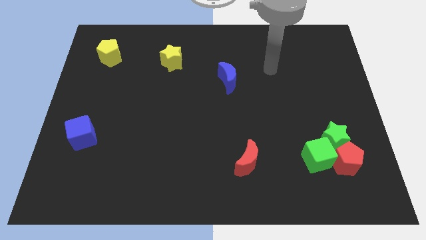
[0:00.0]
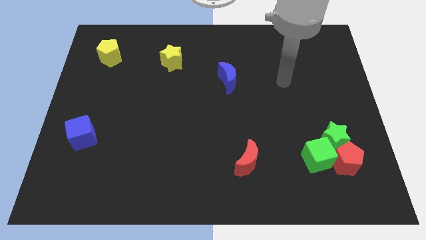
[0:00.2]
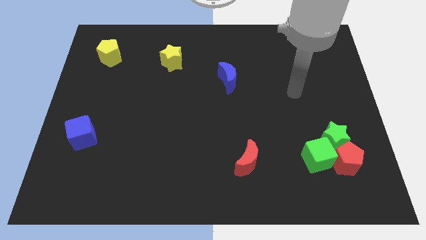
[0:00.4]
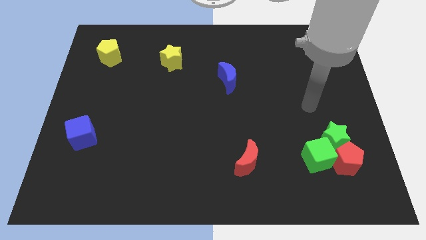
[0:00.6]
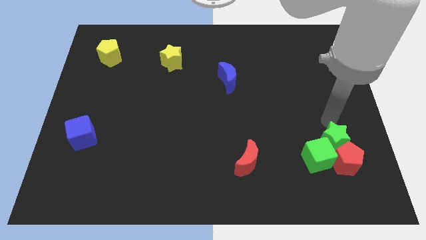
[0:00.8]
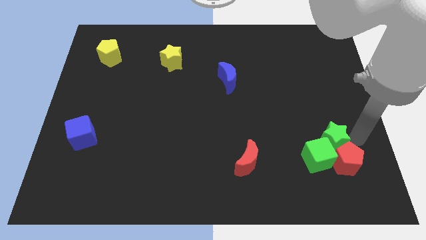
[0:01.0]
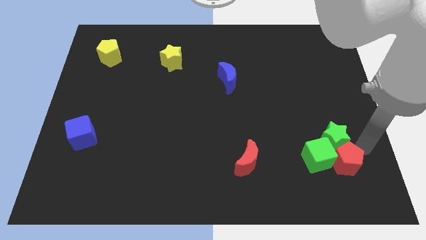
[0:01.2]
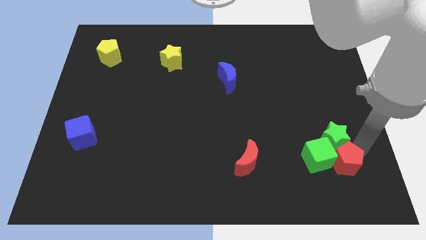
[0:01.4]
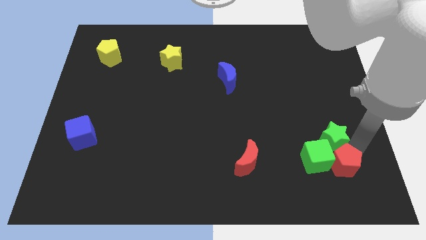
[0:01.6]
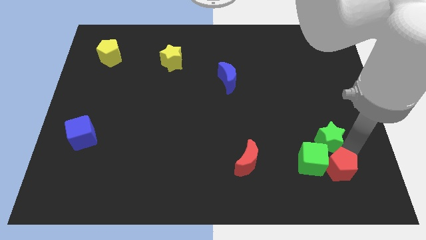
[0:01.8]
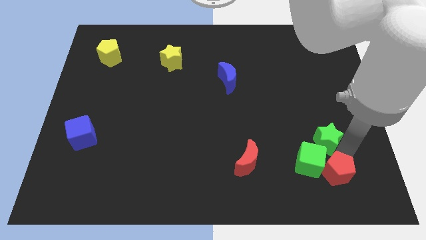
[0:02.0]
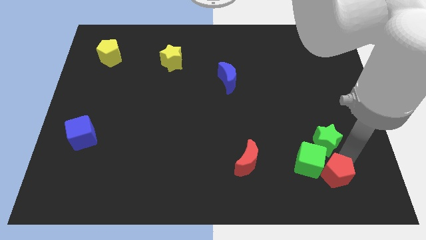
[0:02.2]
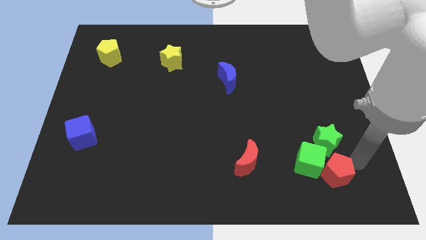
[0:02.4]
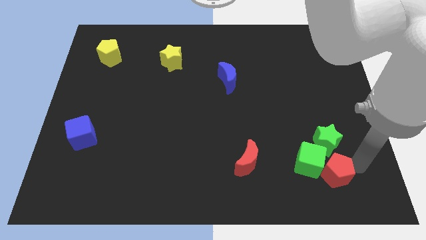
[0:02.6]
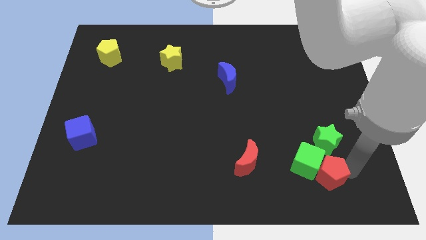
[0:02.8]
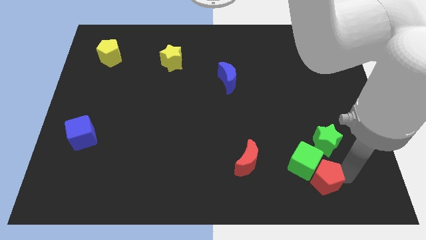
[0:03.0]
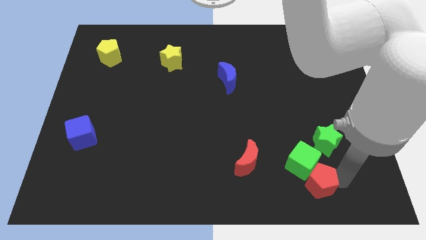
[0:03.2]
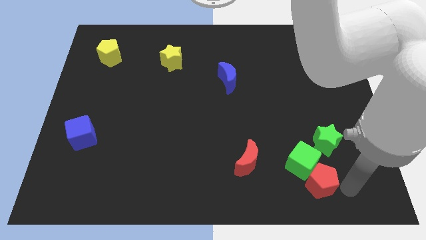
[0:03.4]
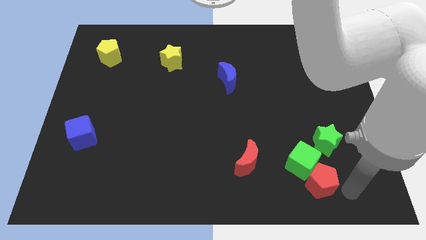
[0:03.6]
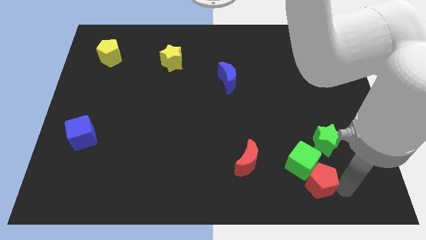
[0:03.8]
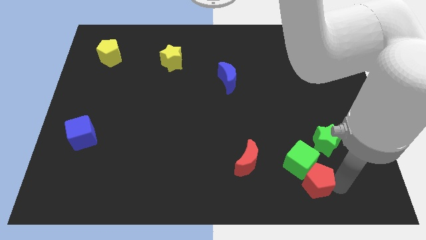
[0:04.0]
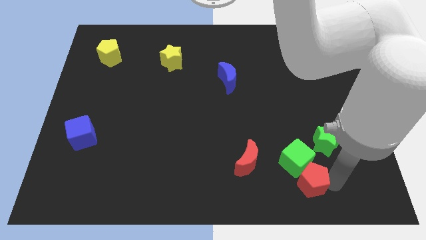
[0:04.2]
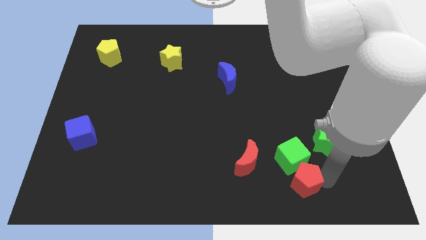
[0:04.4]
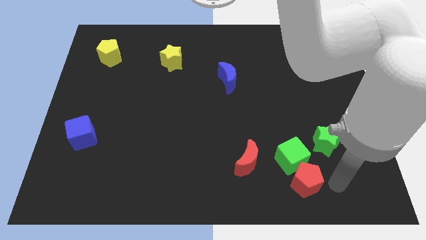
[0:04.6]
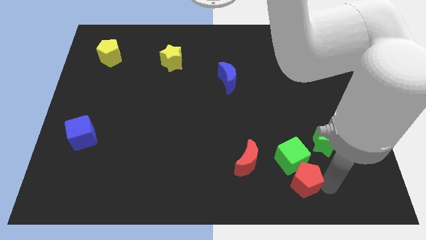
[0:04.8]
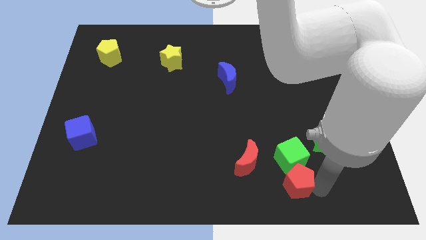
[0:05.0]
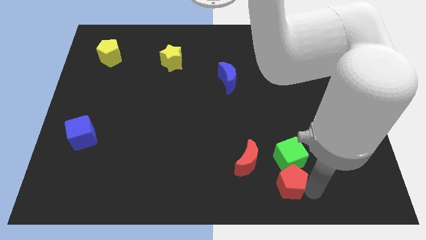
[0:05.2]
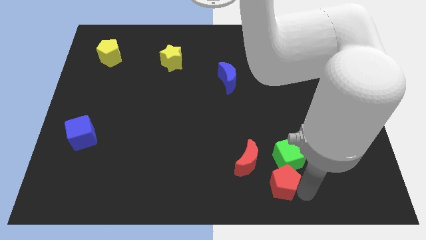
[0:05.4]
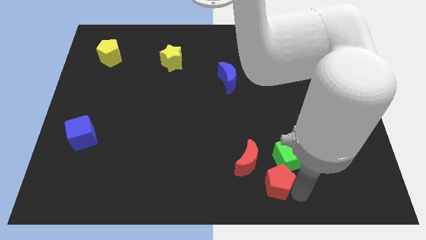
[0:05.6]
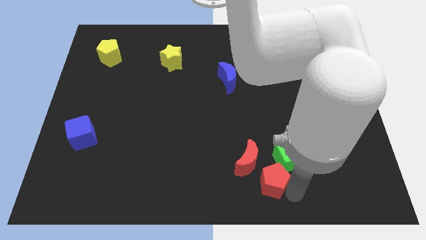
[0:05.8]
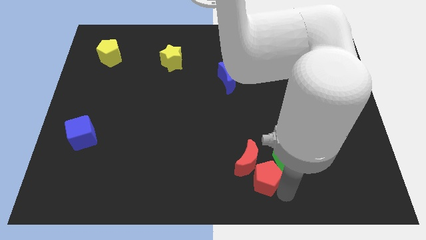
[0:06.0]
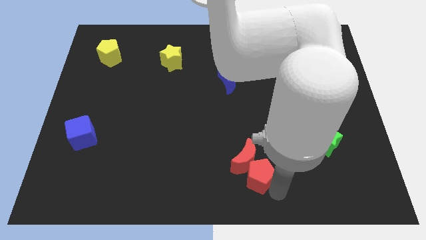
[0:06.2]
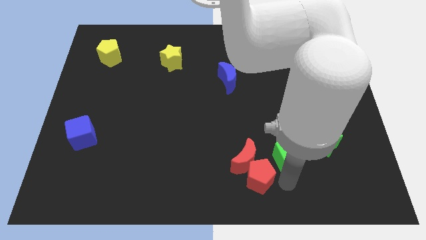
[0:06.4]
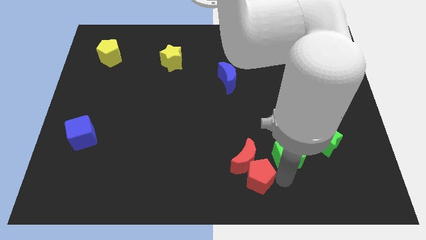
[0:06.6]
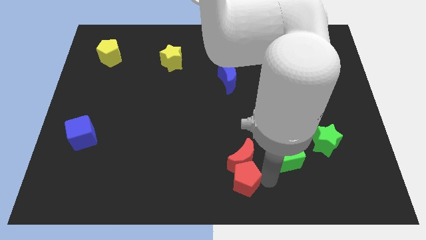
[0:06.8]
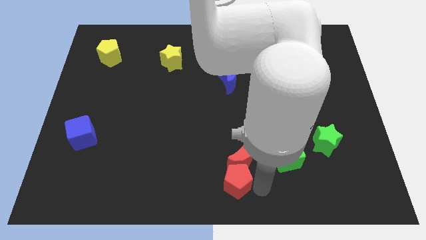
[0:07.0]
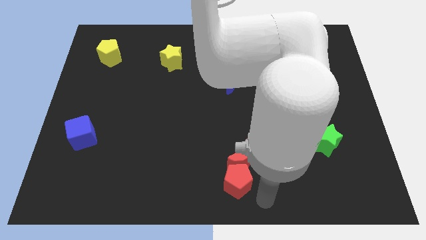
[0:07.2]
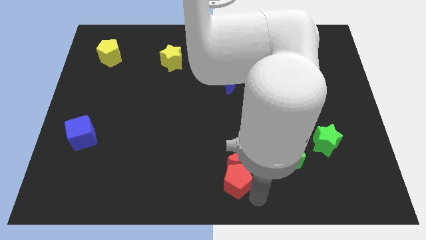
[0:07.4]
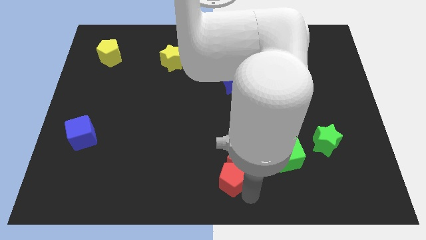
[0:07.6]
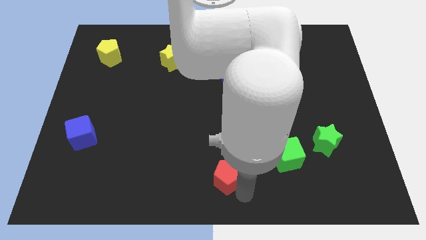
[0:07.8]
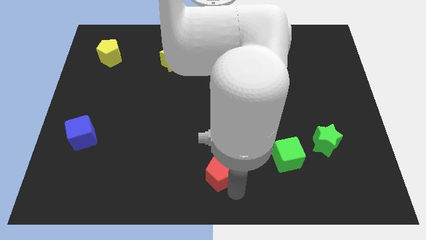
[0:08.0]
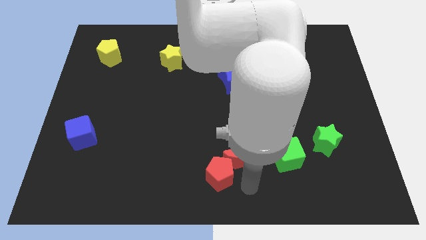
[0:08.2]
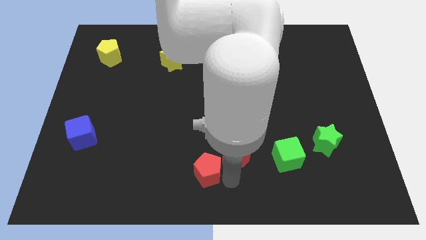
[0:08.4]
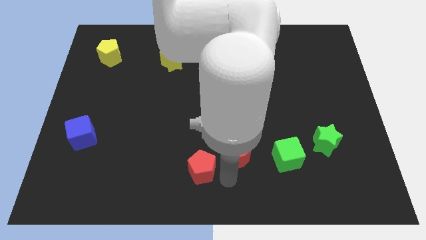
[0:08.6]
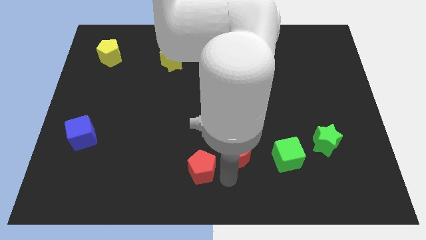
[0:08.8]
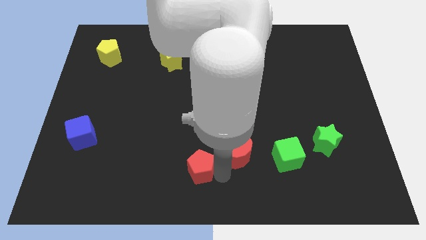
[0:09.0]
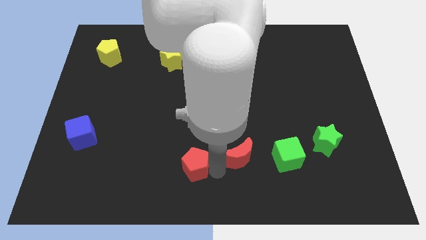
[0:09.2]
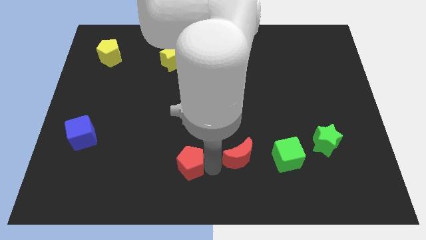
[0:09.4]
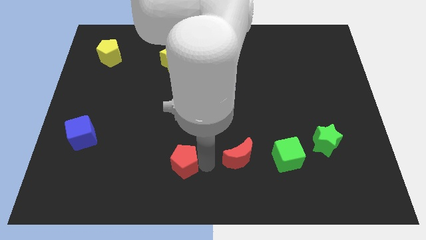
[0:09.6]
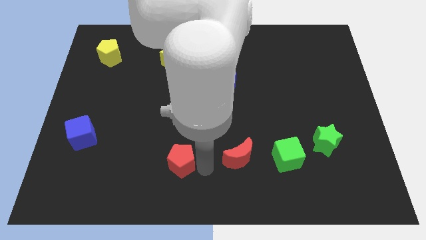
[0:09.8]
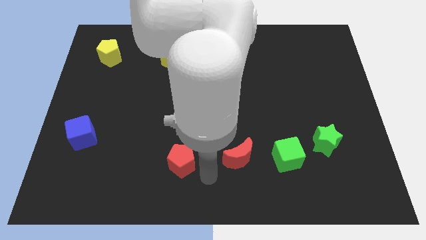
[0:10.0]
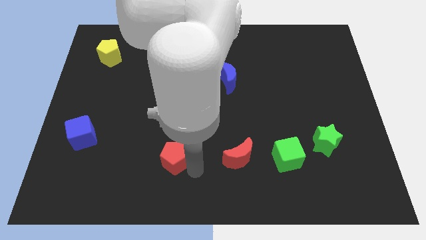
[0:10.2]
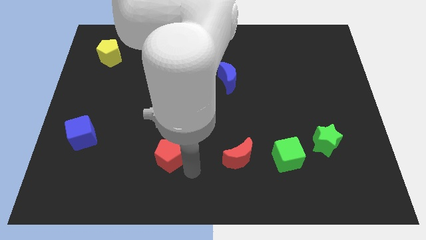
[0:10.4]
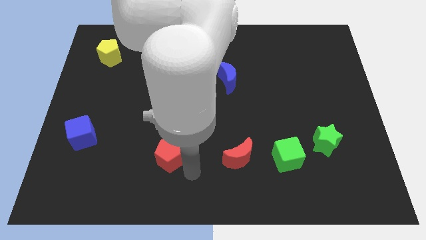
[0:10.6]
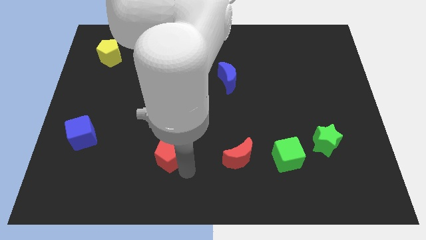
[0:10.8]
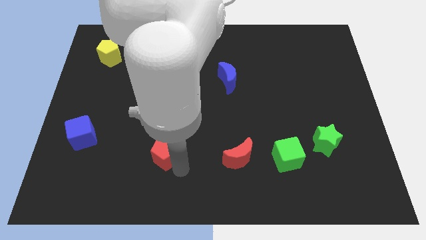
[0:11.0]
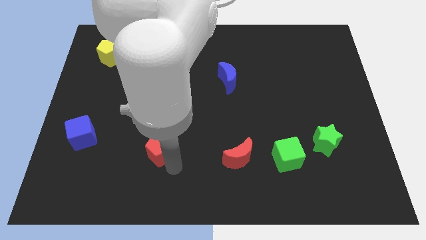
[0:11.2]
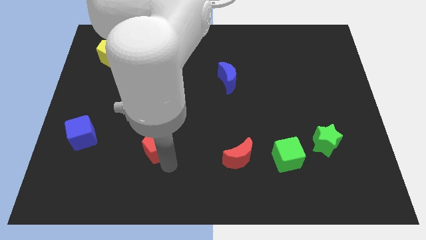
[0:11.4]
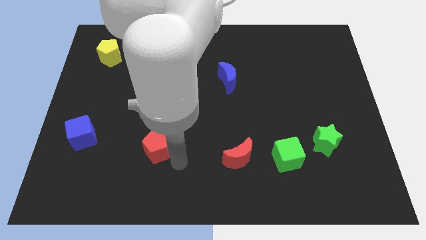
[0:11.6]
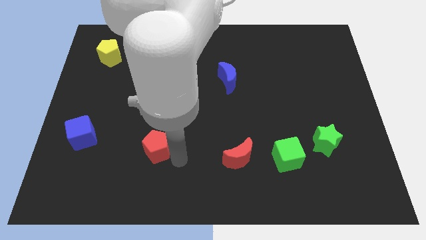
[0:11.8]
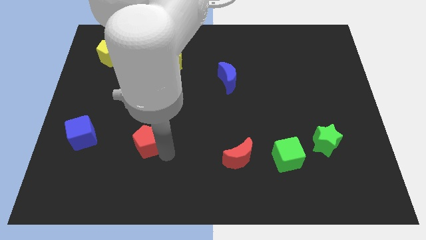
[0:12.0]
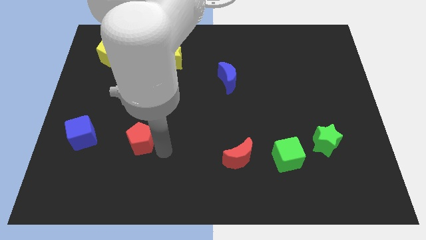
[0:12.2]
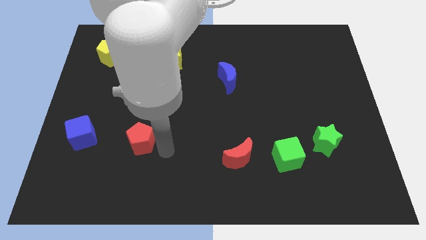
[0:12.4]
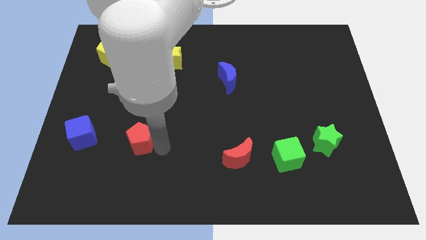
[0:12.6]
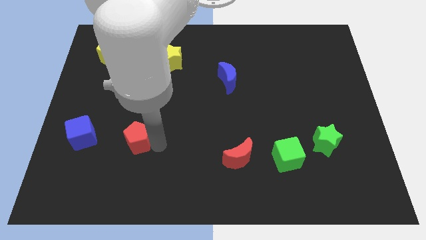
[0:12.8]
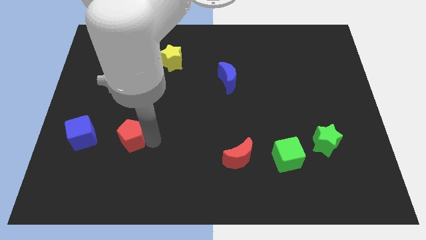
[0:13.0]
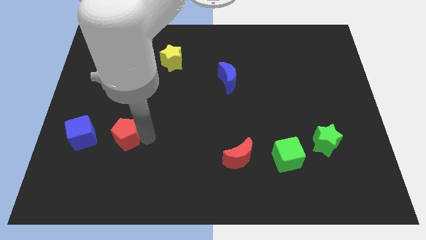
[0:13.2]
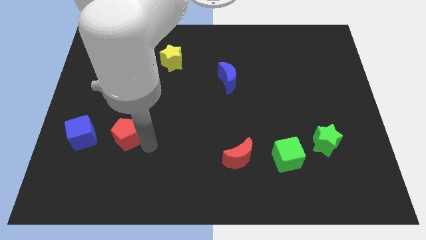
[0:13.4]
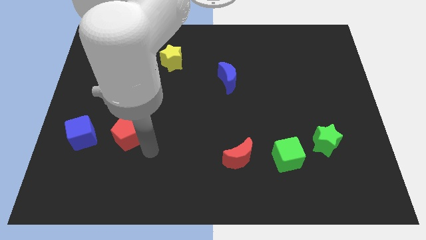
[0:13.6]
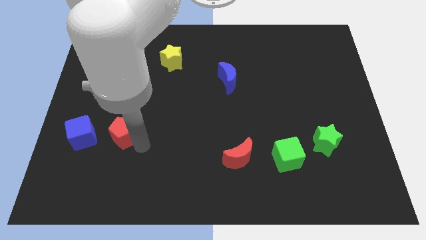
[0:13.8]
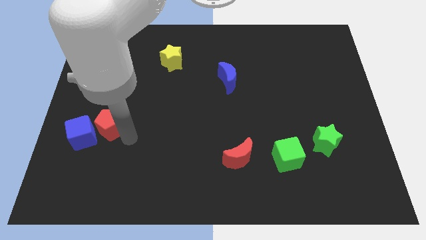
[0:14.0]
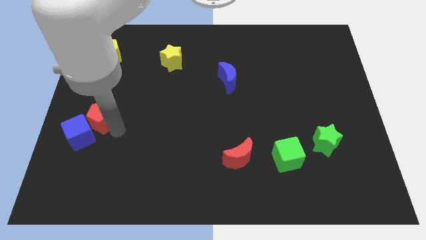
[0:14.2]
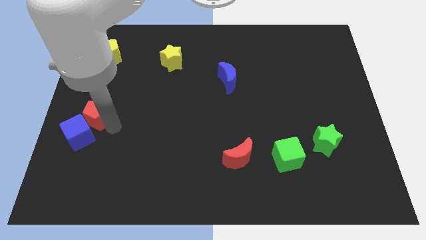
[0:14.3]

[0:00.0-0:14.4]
move the red pentagon to the left side
